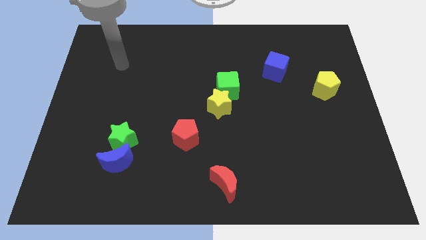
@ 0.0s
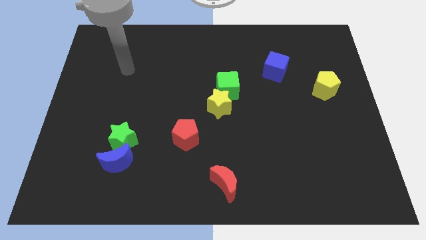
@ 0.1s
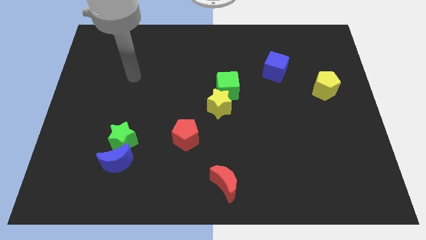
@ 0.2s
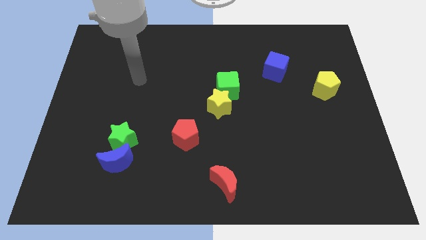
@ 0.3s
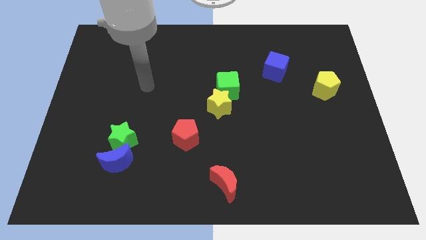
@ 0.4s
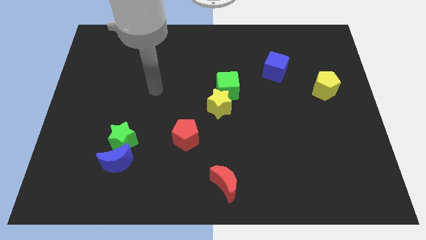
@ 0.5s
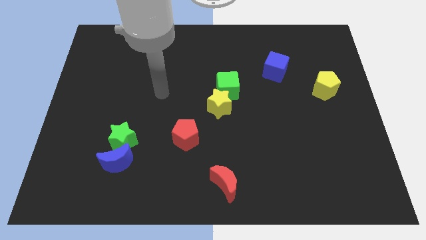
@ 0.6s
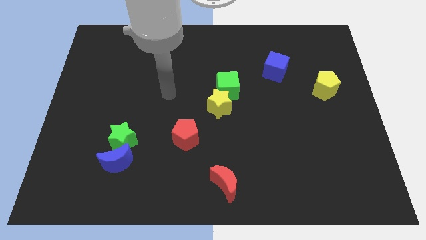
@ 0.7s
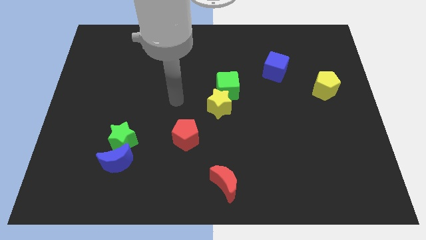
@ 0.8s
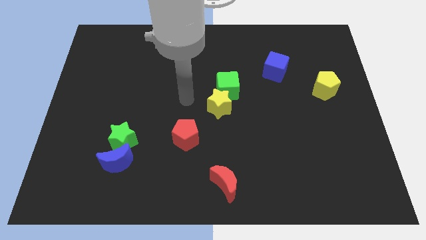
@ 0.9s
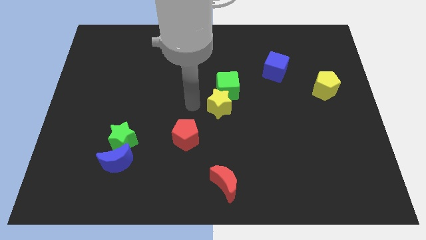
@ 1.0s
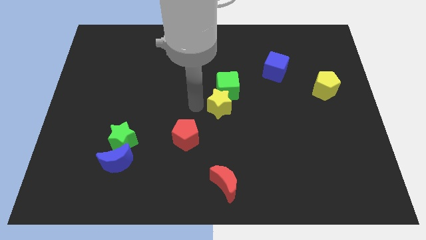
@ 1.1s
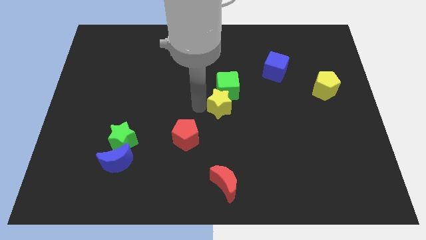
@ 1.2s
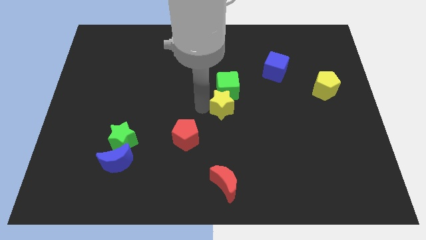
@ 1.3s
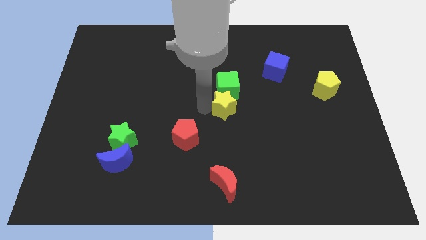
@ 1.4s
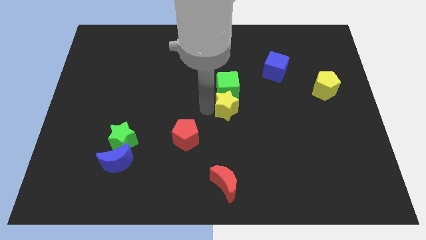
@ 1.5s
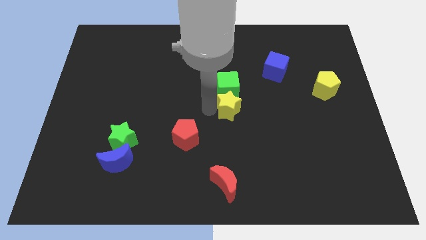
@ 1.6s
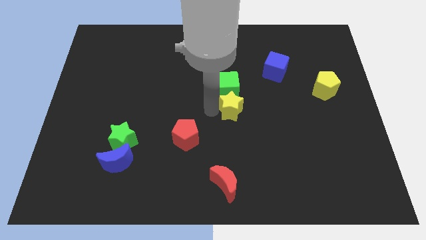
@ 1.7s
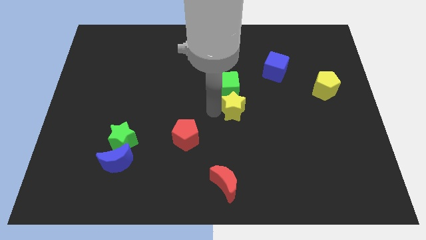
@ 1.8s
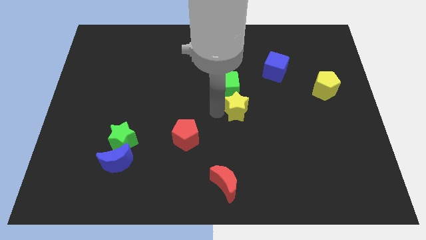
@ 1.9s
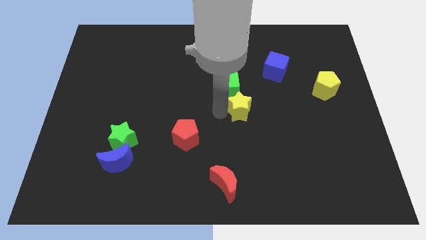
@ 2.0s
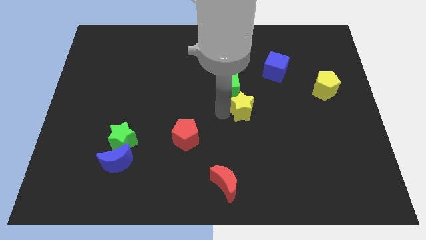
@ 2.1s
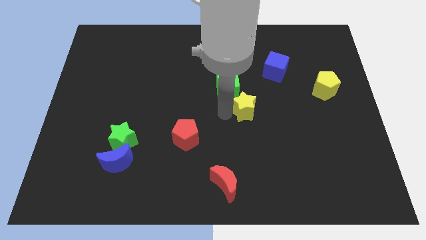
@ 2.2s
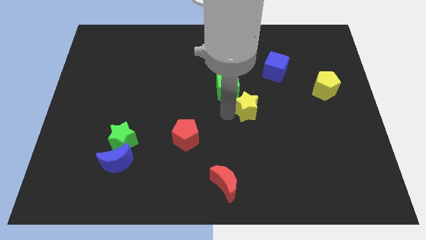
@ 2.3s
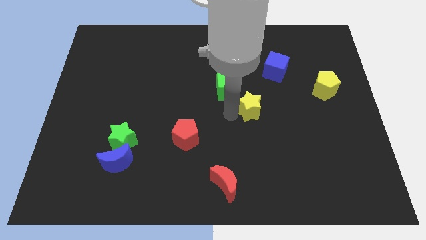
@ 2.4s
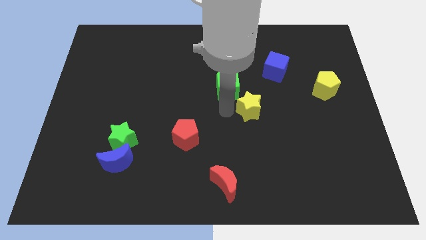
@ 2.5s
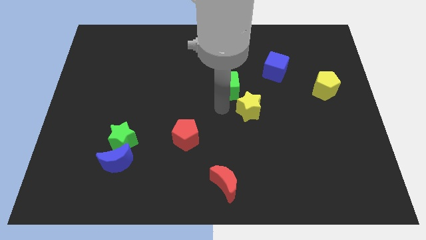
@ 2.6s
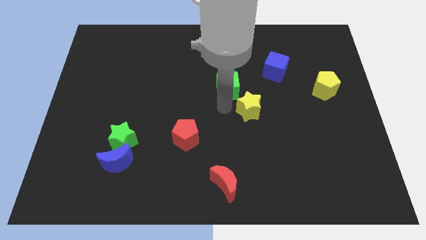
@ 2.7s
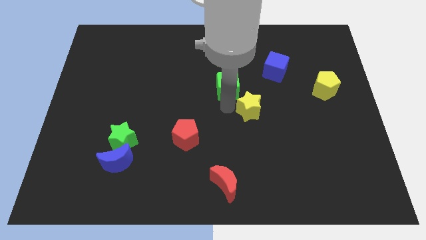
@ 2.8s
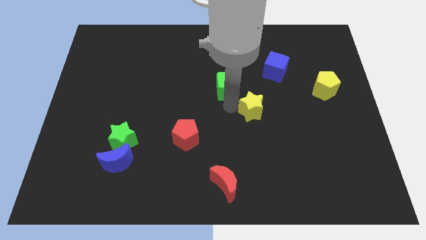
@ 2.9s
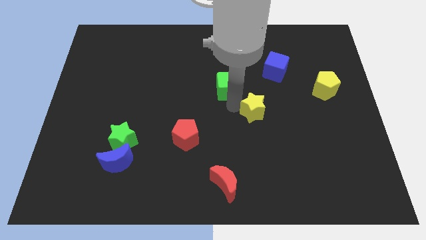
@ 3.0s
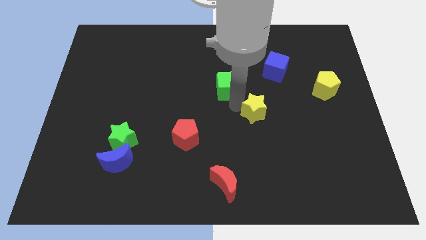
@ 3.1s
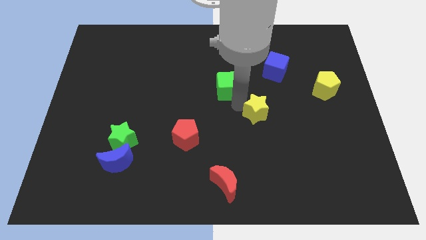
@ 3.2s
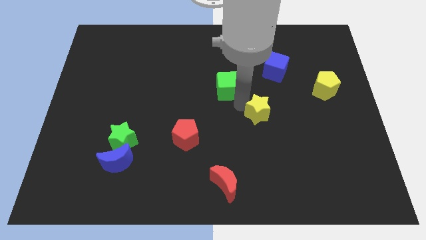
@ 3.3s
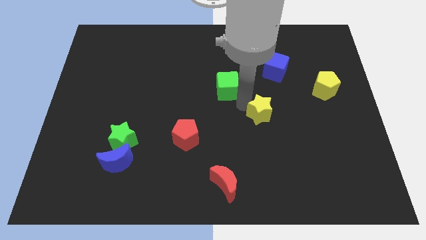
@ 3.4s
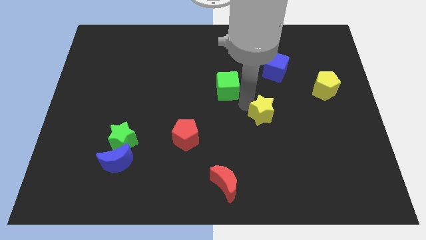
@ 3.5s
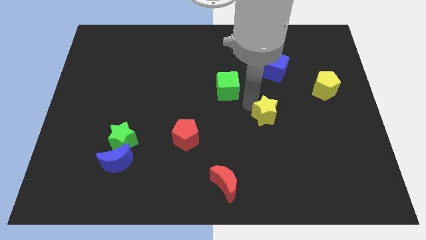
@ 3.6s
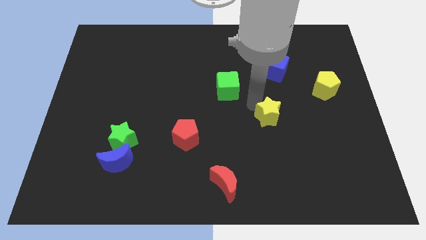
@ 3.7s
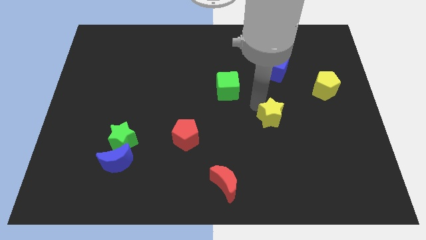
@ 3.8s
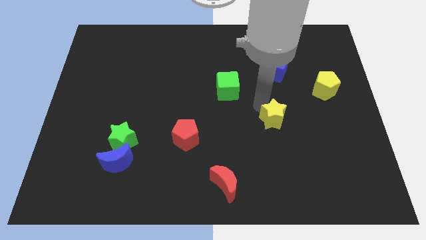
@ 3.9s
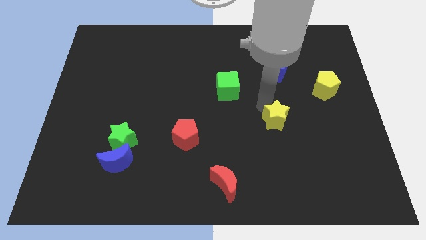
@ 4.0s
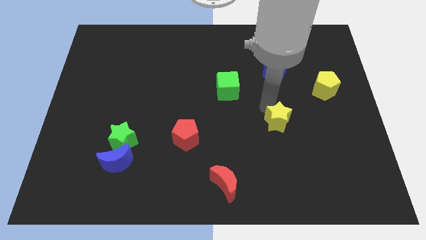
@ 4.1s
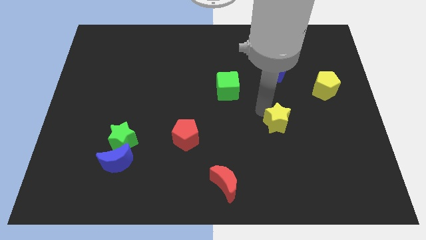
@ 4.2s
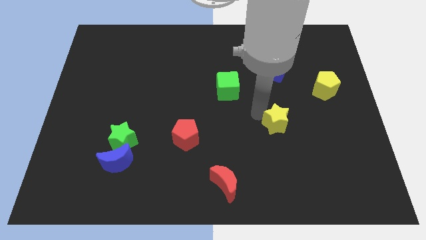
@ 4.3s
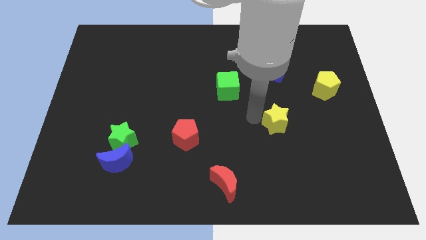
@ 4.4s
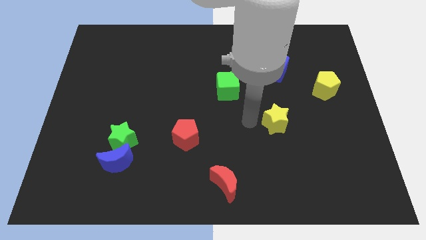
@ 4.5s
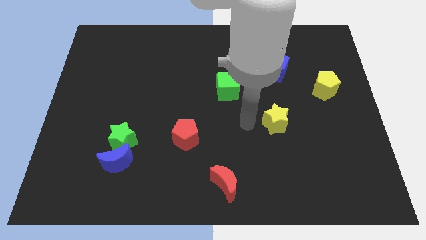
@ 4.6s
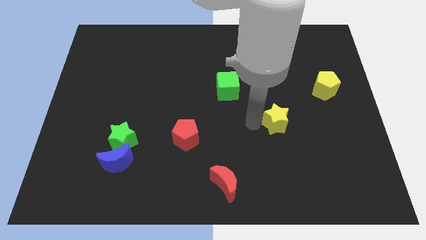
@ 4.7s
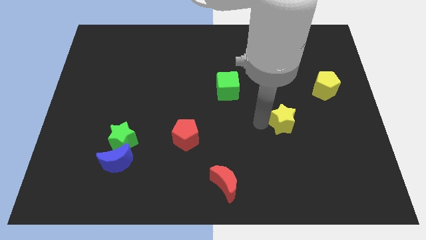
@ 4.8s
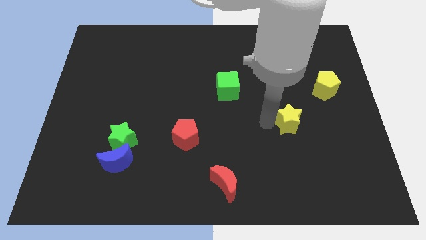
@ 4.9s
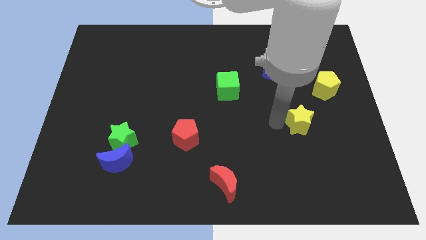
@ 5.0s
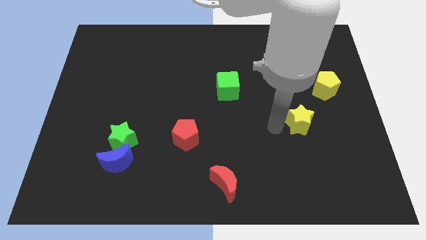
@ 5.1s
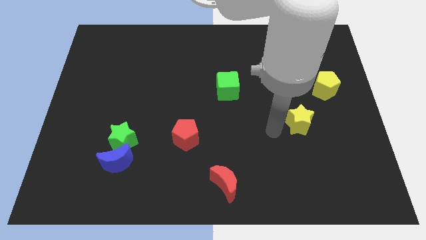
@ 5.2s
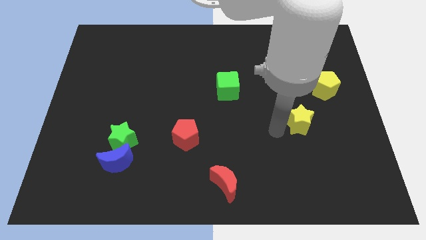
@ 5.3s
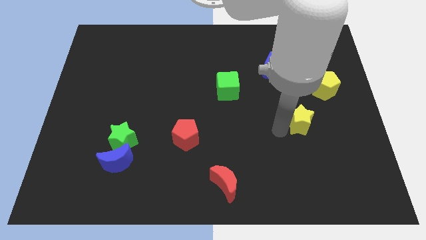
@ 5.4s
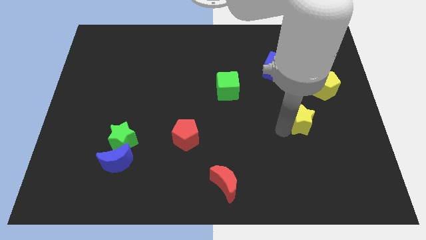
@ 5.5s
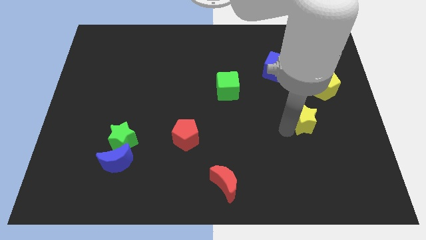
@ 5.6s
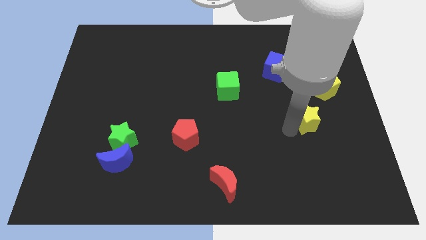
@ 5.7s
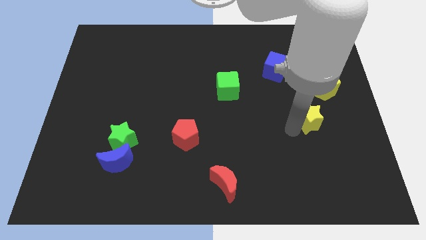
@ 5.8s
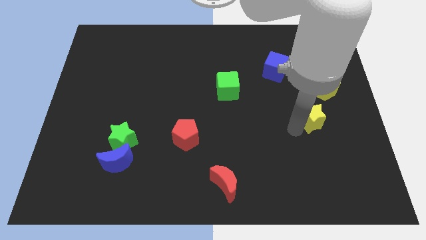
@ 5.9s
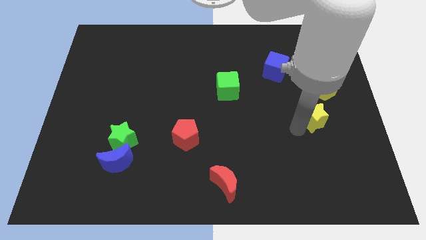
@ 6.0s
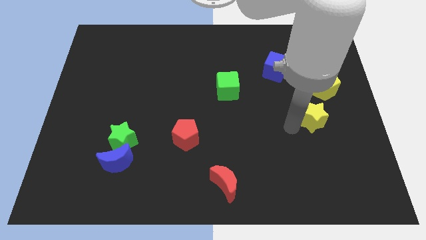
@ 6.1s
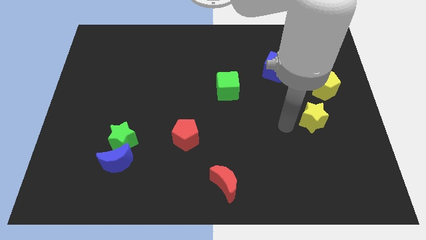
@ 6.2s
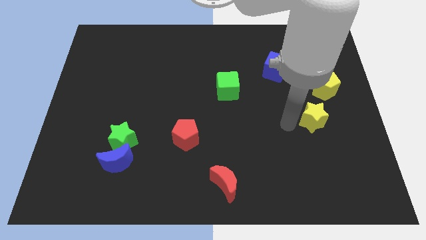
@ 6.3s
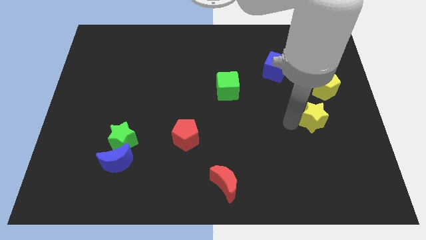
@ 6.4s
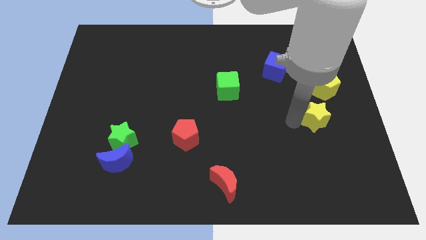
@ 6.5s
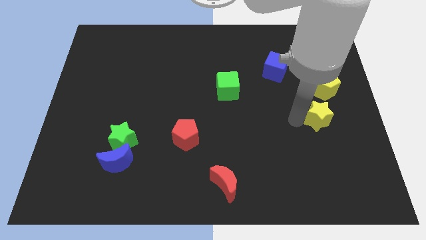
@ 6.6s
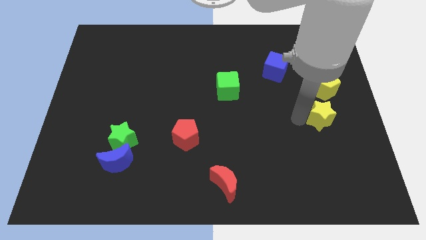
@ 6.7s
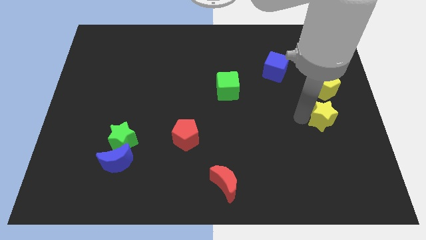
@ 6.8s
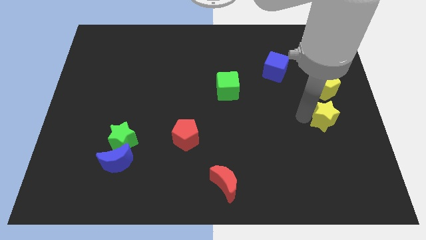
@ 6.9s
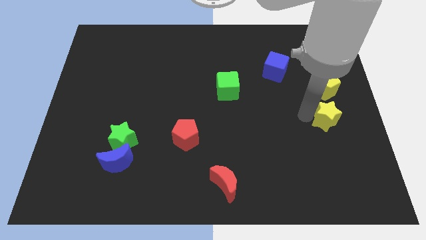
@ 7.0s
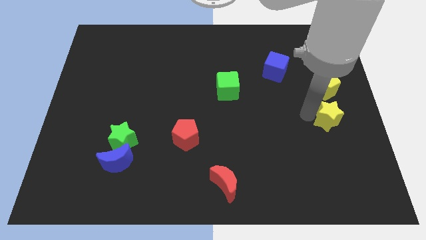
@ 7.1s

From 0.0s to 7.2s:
move the yellow star to the center right
